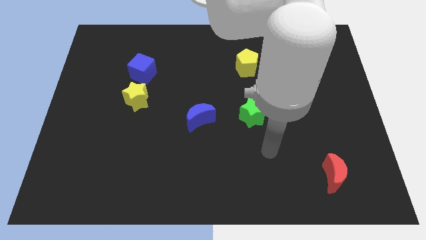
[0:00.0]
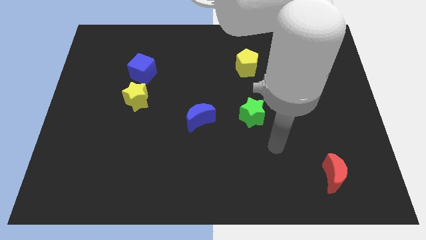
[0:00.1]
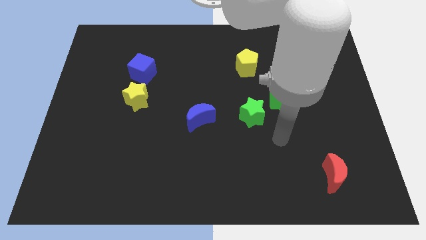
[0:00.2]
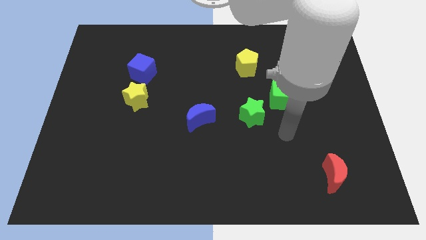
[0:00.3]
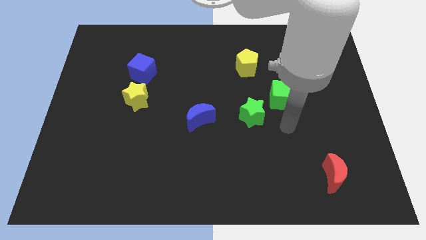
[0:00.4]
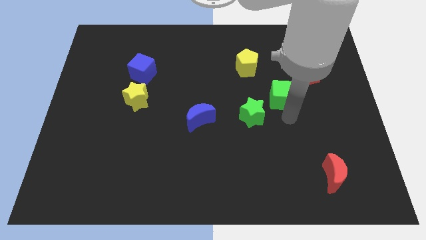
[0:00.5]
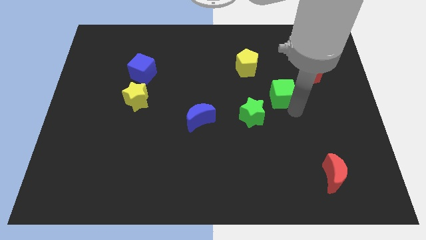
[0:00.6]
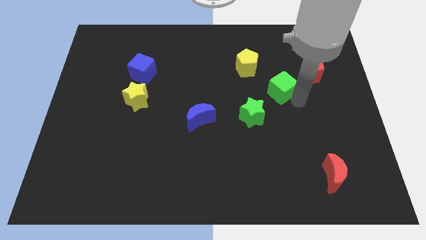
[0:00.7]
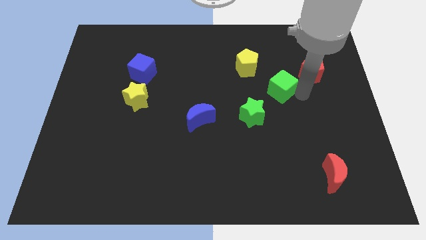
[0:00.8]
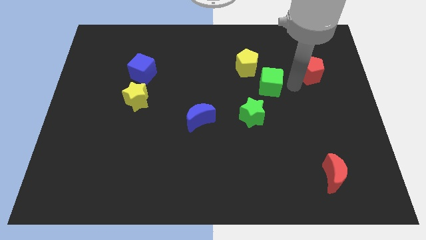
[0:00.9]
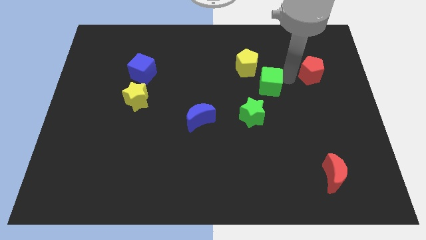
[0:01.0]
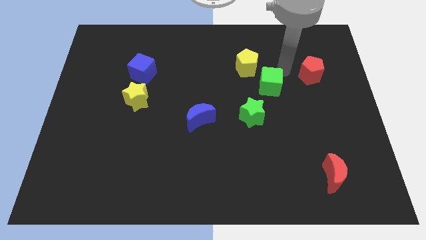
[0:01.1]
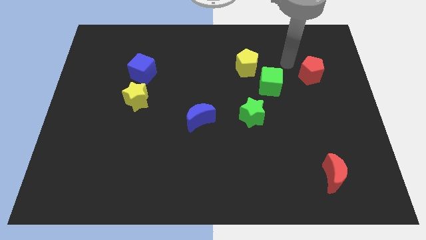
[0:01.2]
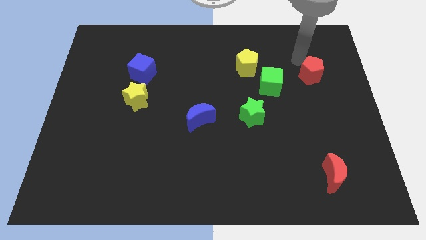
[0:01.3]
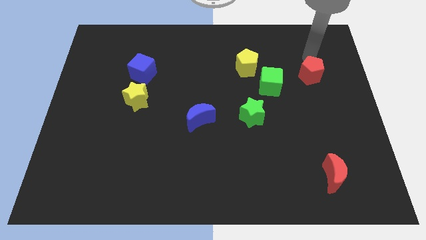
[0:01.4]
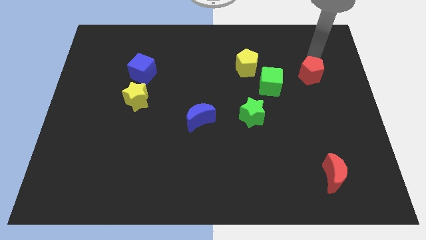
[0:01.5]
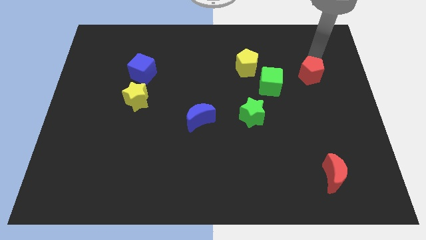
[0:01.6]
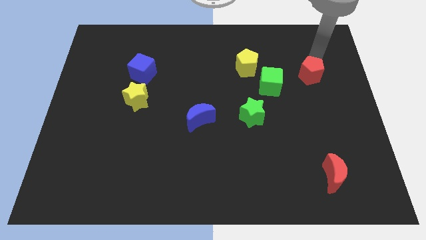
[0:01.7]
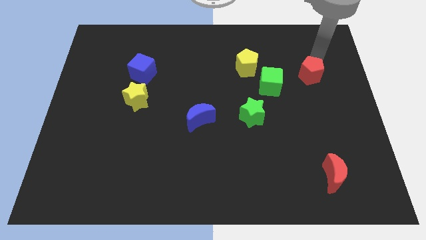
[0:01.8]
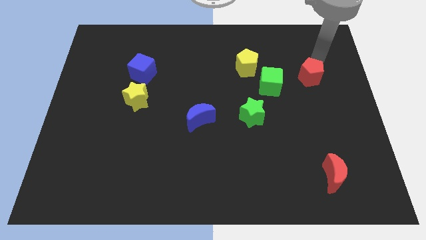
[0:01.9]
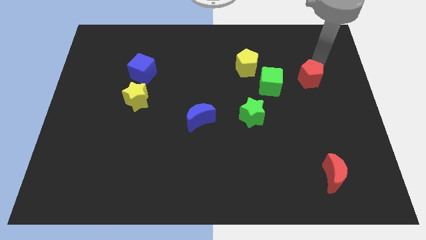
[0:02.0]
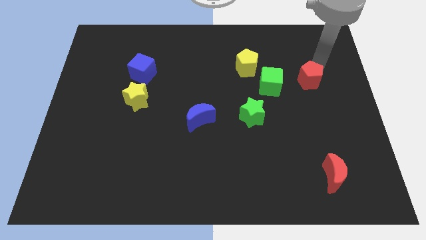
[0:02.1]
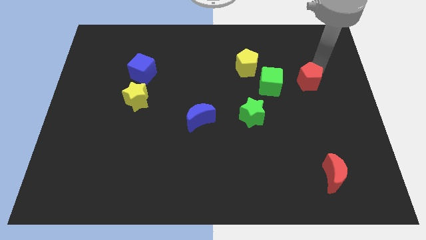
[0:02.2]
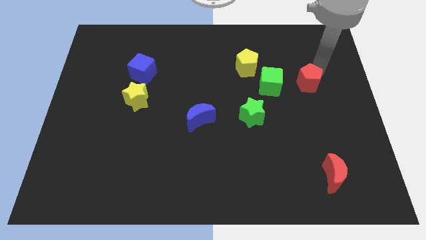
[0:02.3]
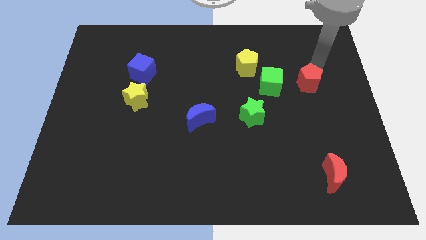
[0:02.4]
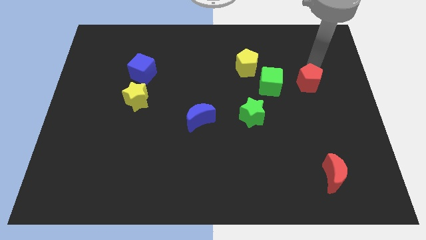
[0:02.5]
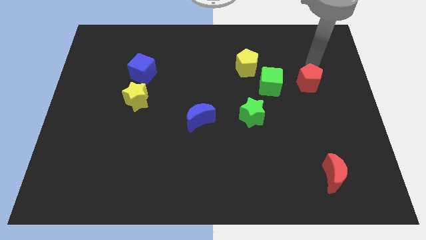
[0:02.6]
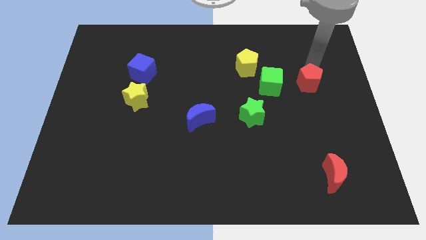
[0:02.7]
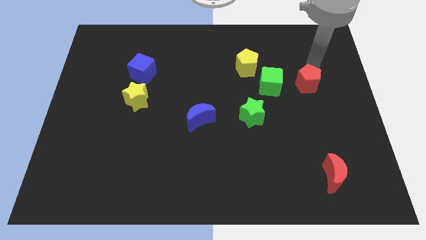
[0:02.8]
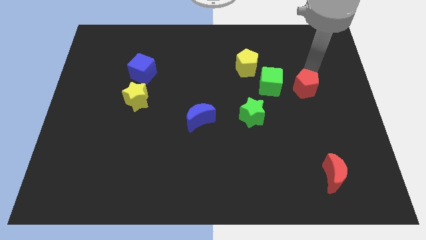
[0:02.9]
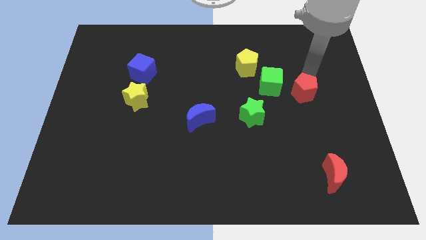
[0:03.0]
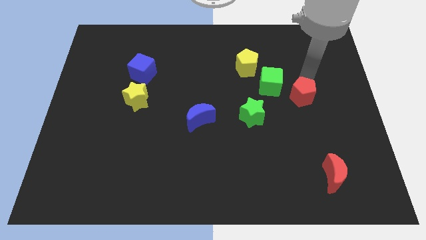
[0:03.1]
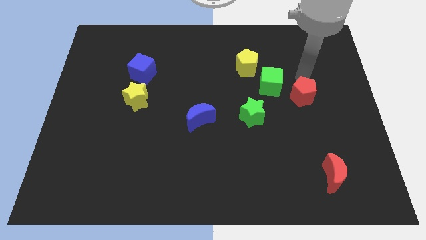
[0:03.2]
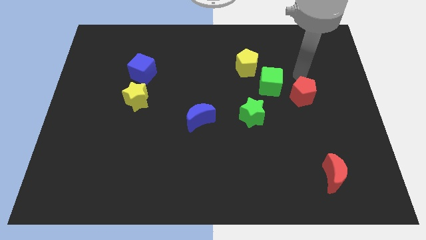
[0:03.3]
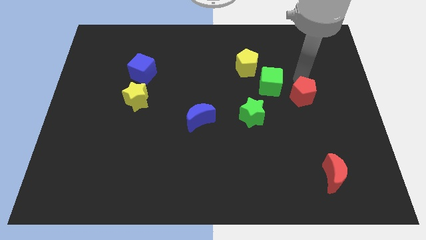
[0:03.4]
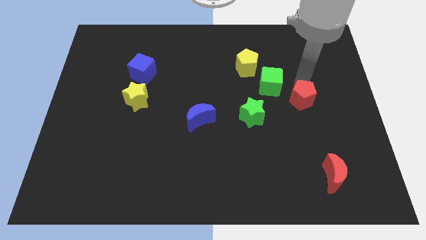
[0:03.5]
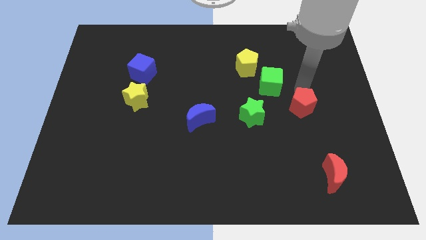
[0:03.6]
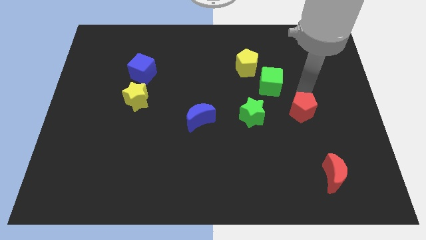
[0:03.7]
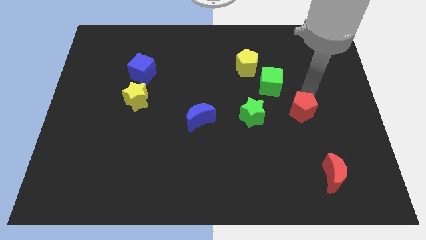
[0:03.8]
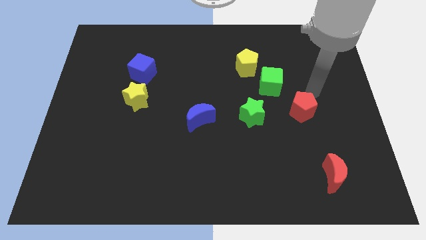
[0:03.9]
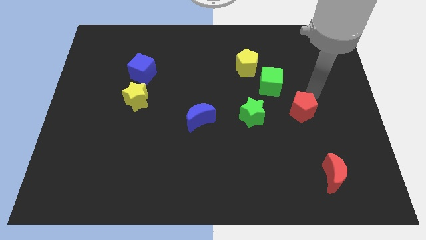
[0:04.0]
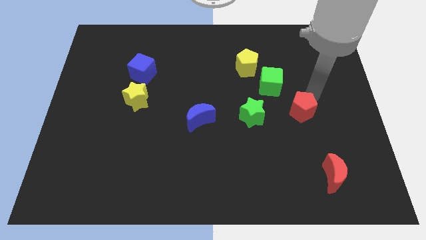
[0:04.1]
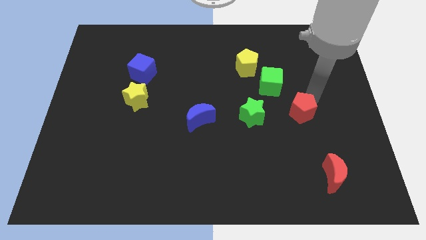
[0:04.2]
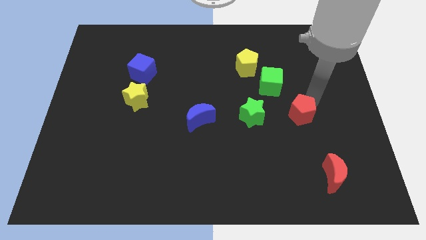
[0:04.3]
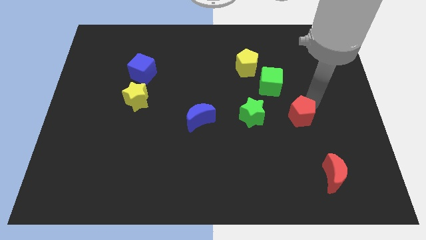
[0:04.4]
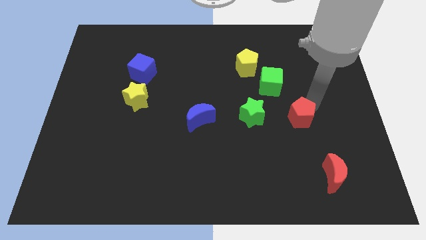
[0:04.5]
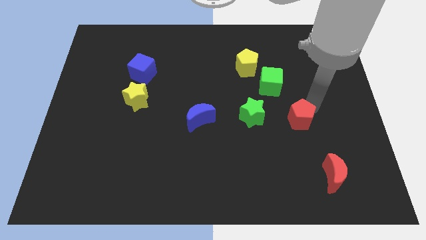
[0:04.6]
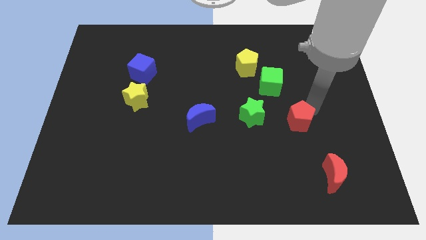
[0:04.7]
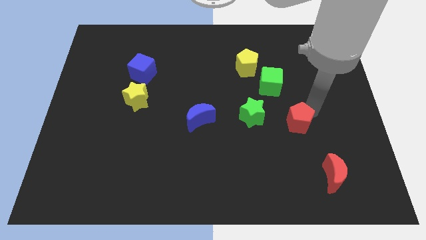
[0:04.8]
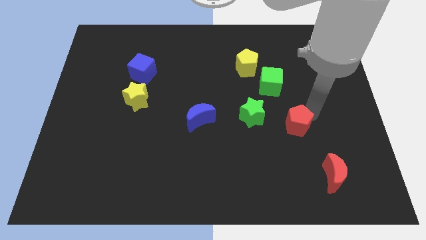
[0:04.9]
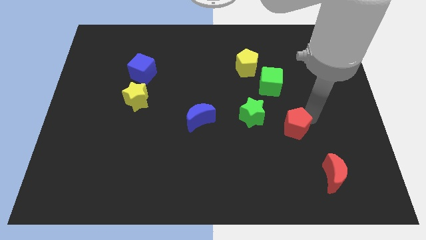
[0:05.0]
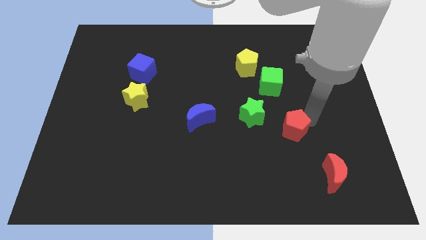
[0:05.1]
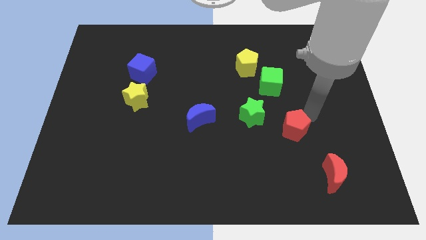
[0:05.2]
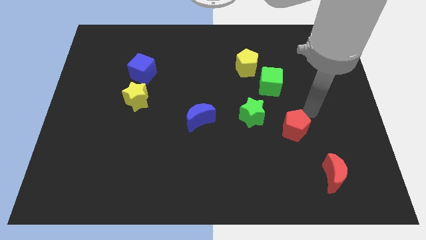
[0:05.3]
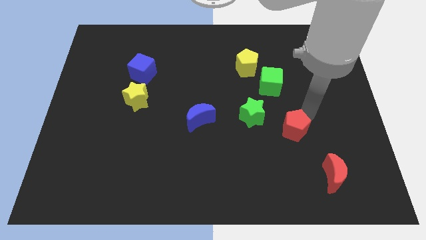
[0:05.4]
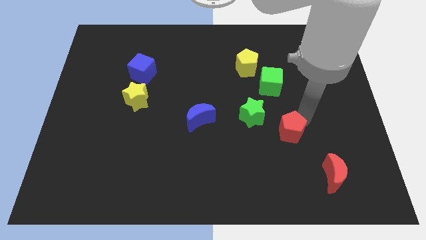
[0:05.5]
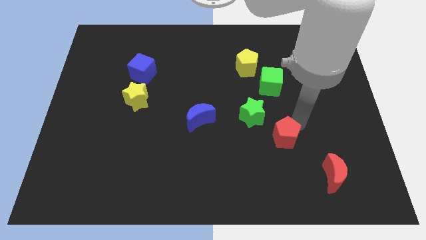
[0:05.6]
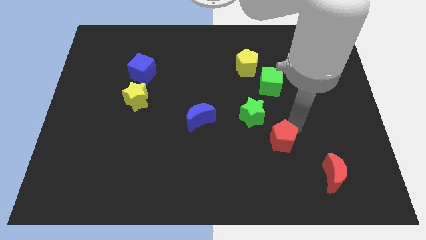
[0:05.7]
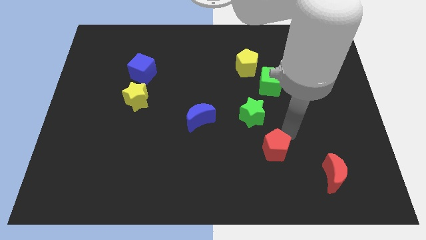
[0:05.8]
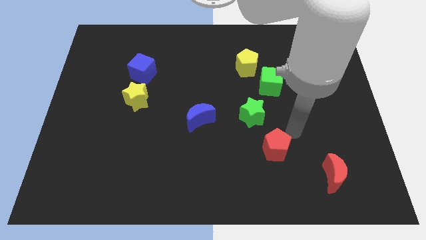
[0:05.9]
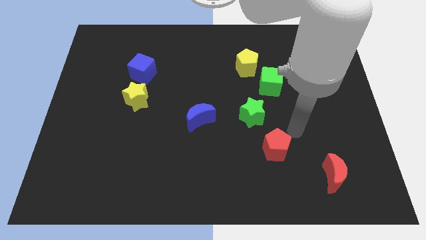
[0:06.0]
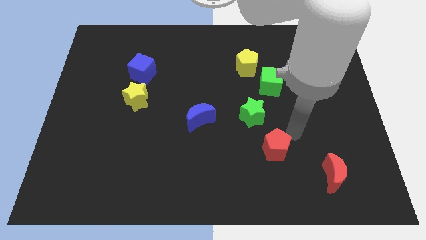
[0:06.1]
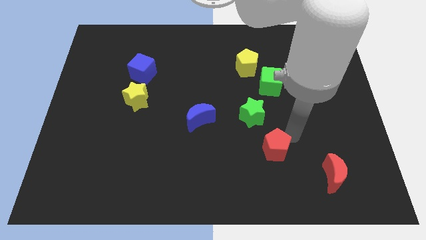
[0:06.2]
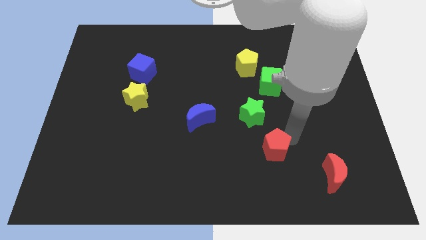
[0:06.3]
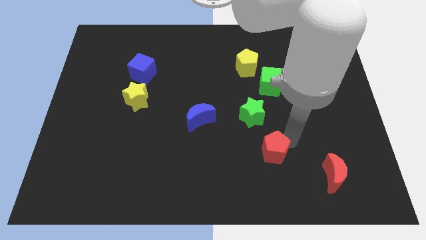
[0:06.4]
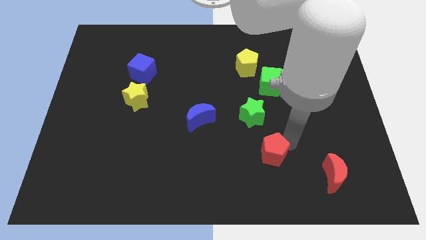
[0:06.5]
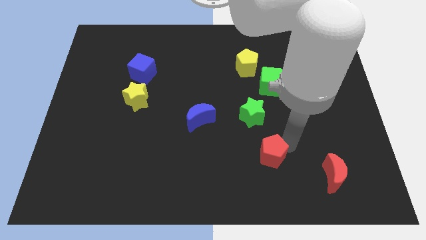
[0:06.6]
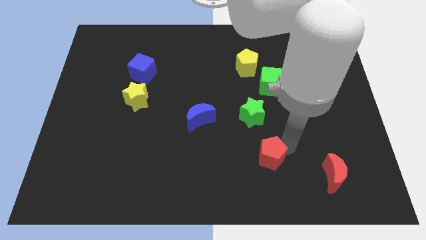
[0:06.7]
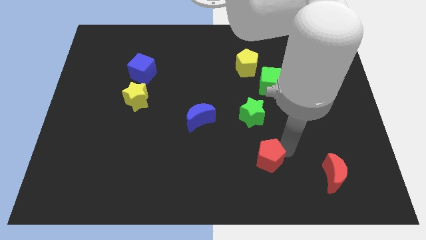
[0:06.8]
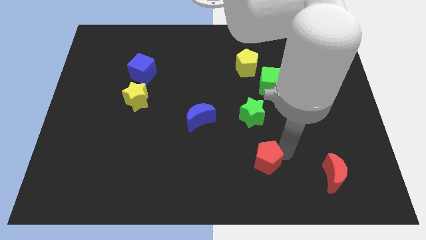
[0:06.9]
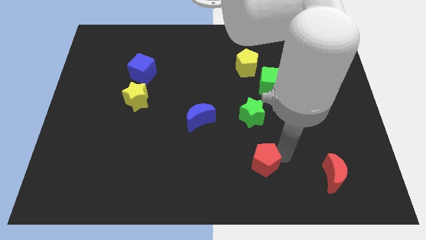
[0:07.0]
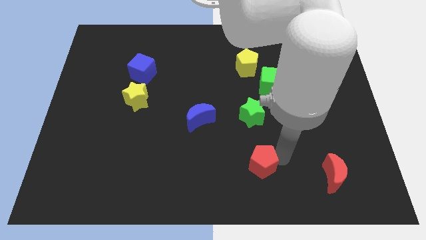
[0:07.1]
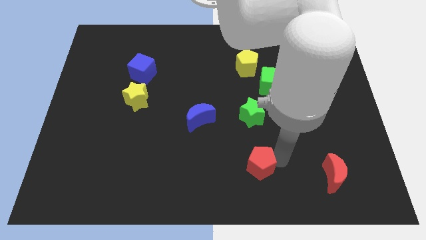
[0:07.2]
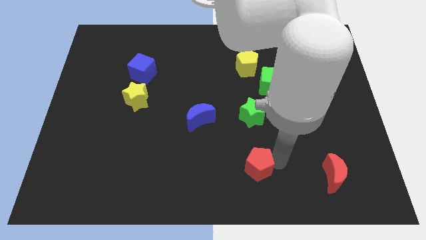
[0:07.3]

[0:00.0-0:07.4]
slide the red pentagon to the bottom side
